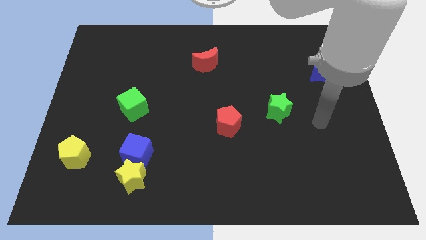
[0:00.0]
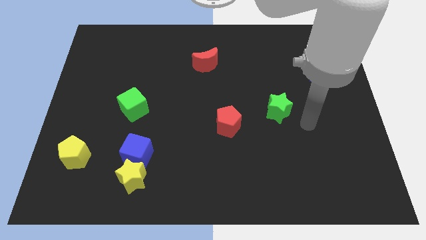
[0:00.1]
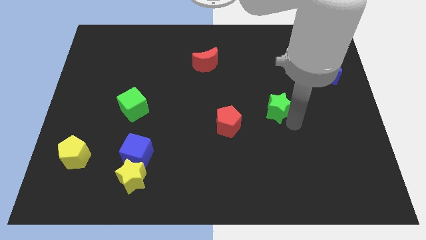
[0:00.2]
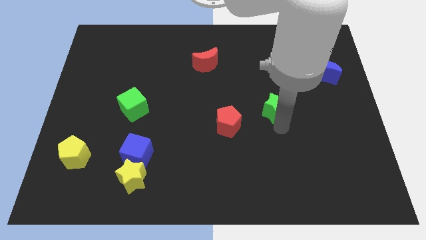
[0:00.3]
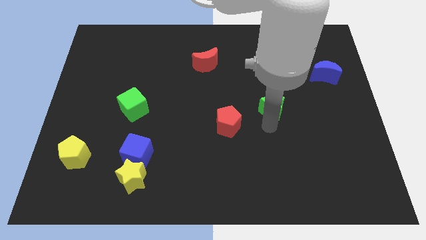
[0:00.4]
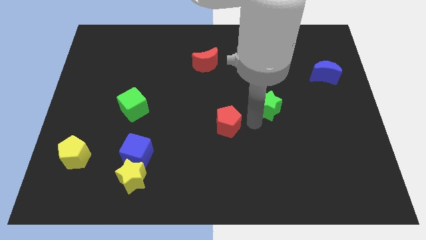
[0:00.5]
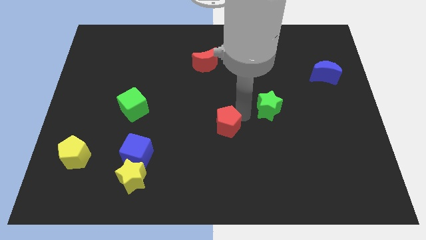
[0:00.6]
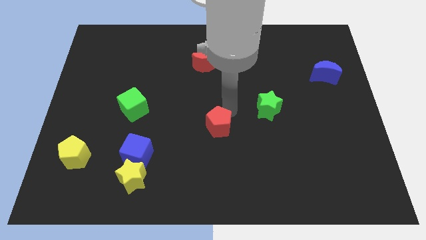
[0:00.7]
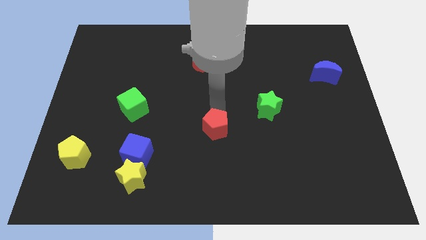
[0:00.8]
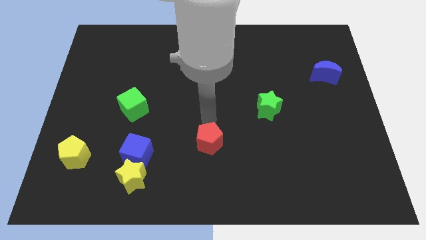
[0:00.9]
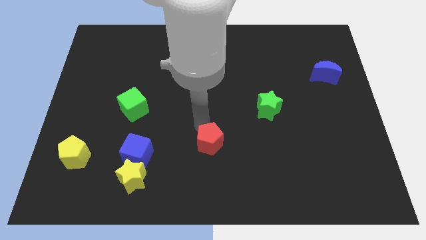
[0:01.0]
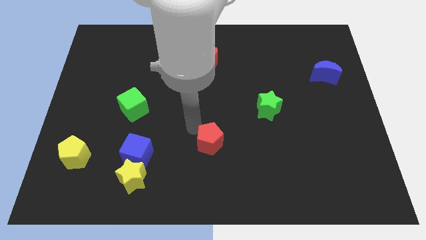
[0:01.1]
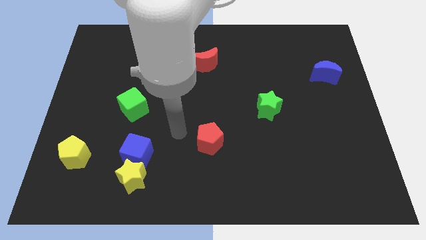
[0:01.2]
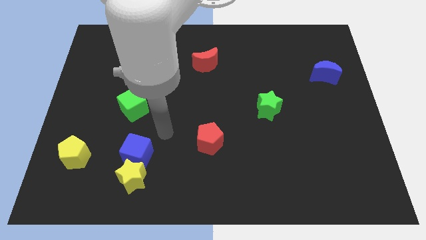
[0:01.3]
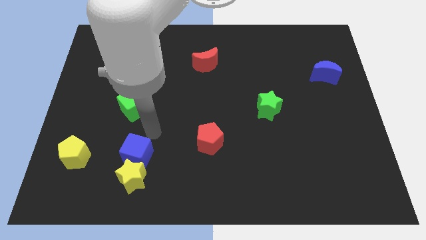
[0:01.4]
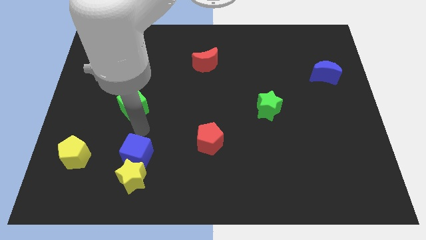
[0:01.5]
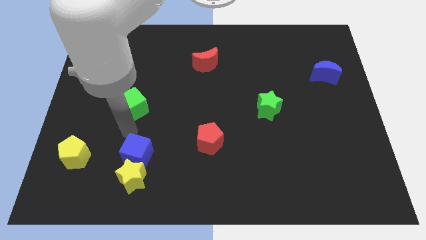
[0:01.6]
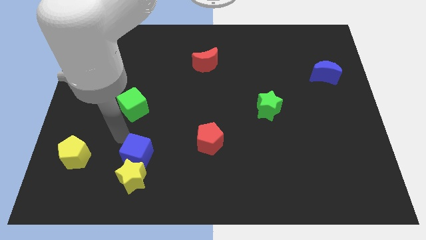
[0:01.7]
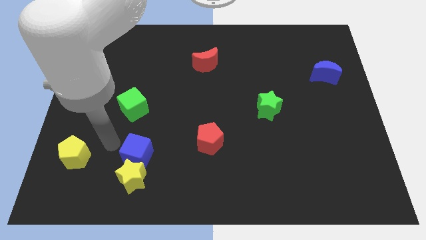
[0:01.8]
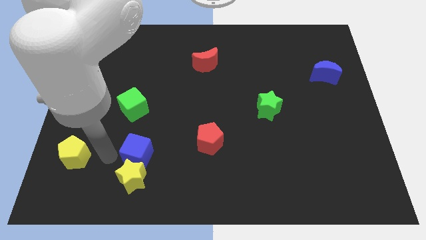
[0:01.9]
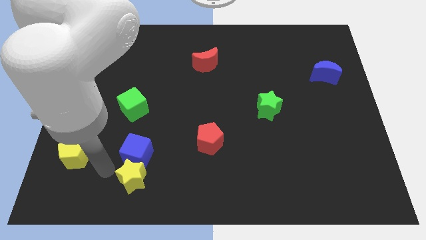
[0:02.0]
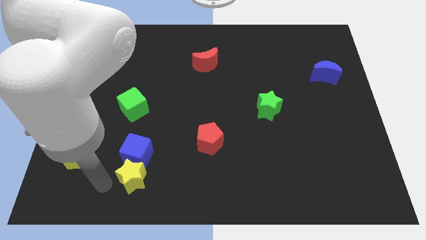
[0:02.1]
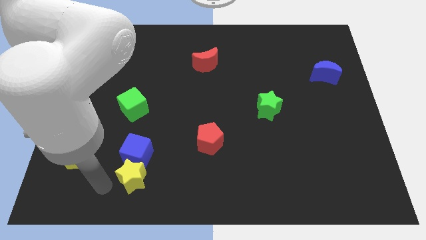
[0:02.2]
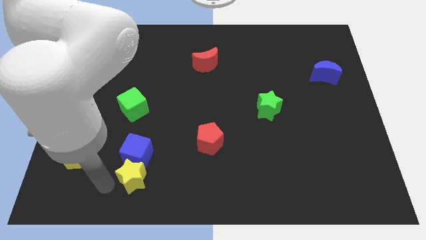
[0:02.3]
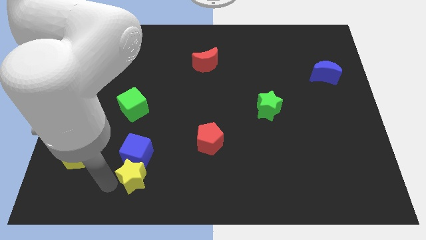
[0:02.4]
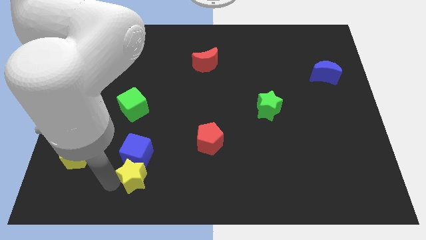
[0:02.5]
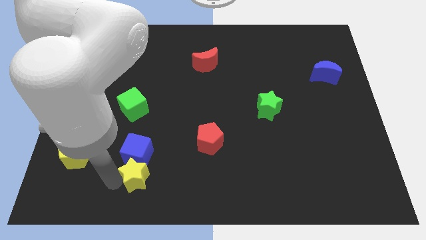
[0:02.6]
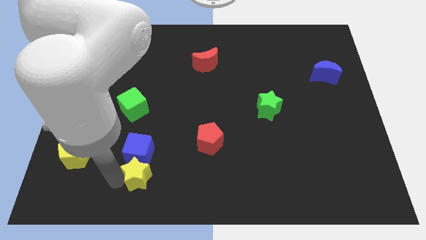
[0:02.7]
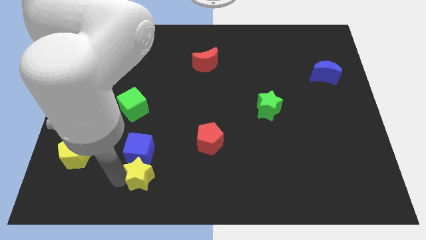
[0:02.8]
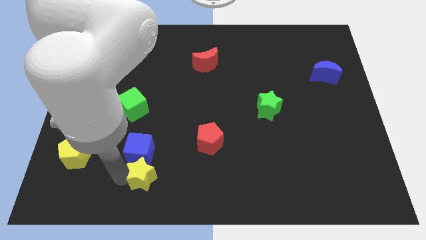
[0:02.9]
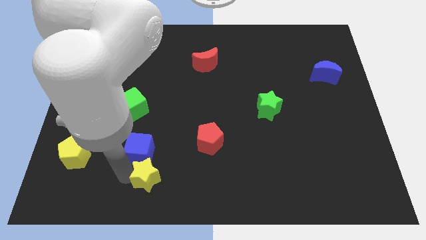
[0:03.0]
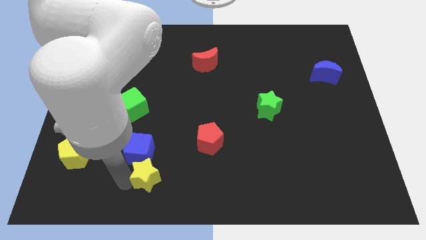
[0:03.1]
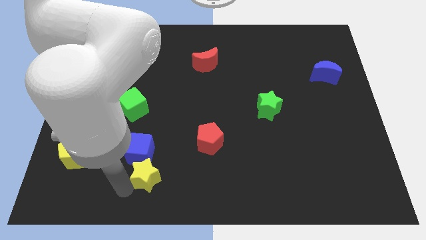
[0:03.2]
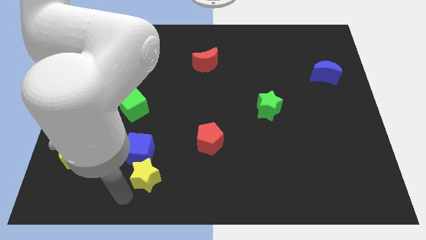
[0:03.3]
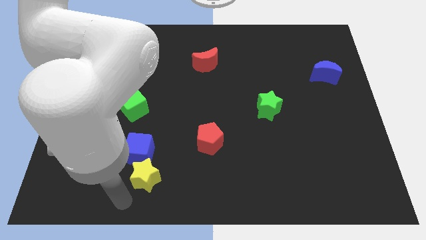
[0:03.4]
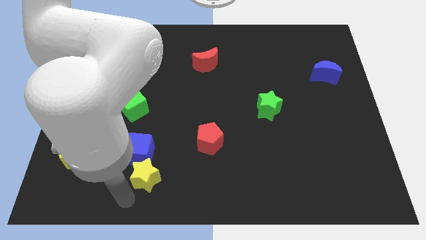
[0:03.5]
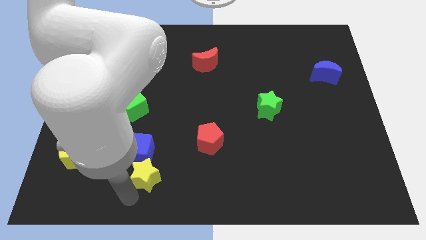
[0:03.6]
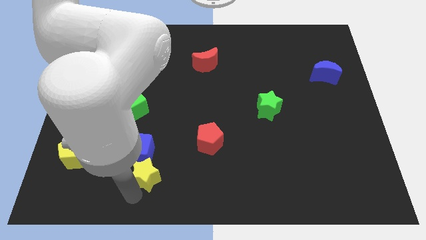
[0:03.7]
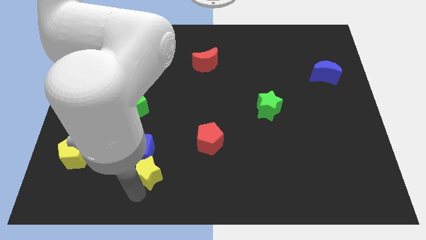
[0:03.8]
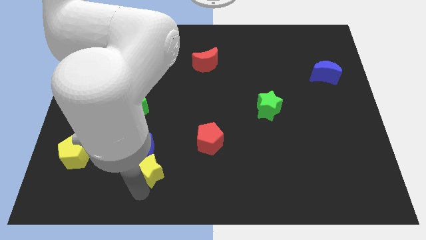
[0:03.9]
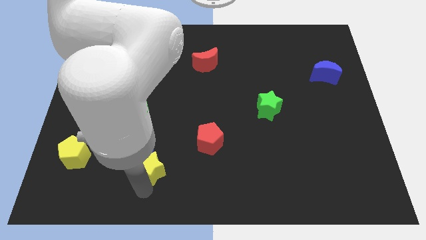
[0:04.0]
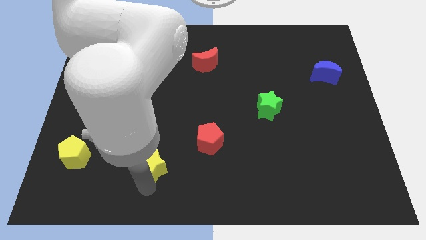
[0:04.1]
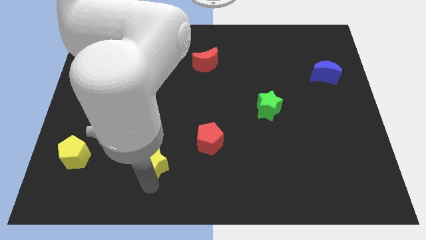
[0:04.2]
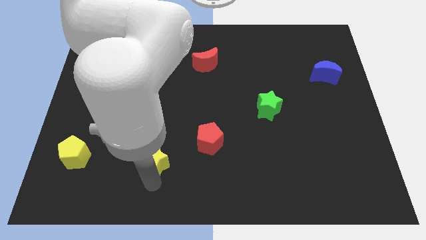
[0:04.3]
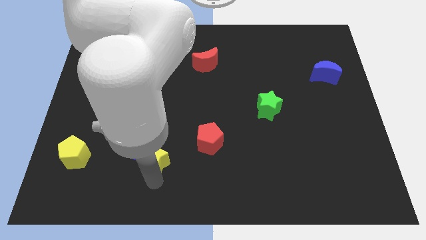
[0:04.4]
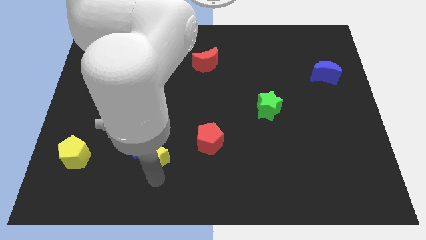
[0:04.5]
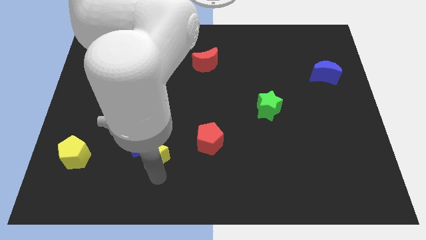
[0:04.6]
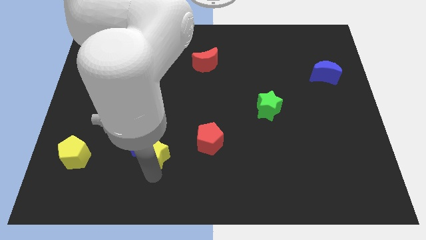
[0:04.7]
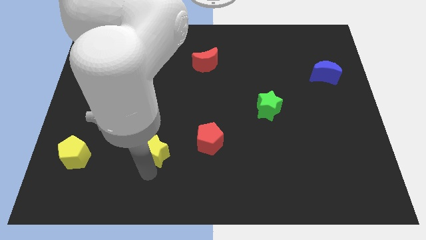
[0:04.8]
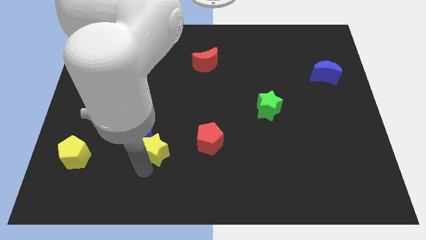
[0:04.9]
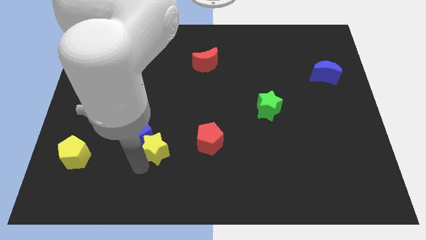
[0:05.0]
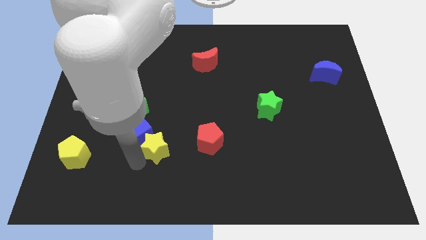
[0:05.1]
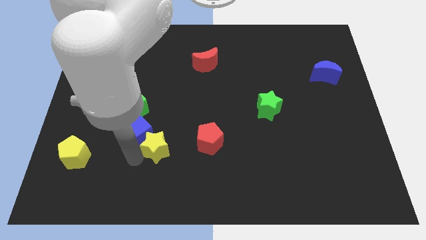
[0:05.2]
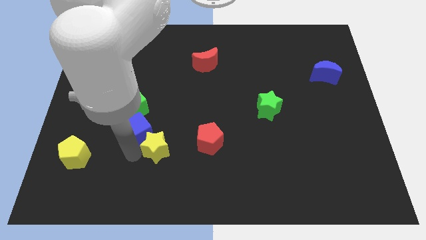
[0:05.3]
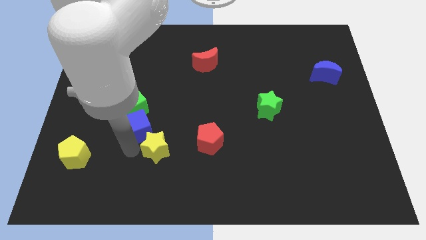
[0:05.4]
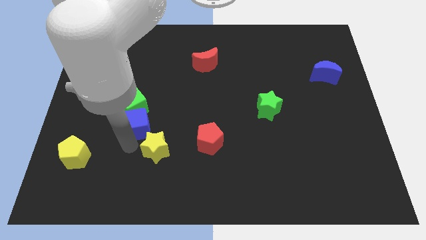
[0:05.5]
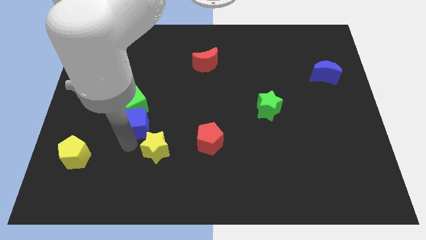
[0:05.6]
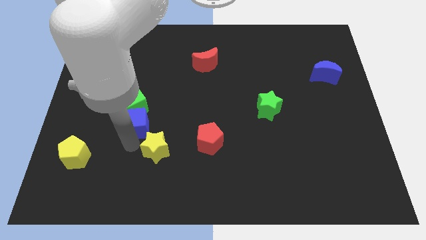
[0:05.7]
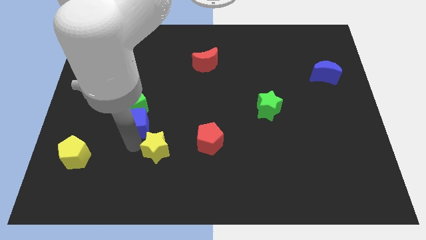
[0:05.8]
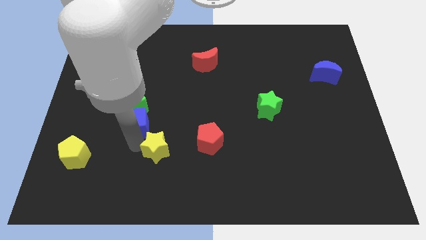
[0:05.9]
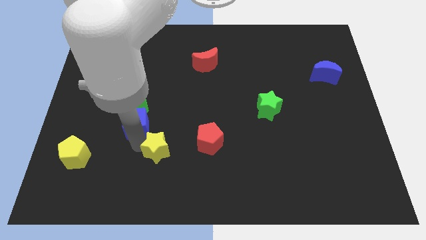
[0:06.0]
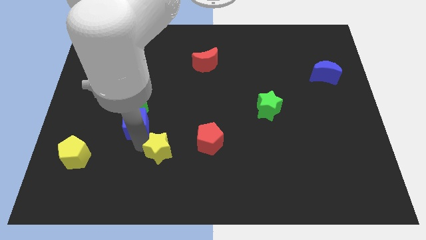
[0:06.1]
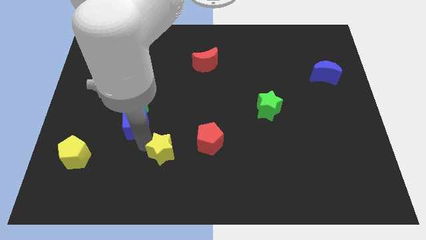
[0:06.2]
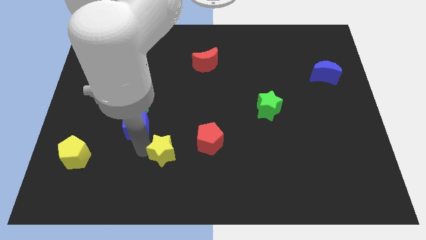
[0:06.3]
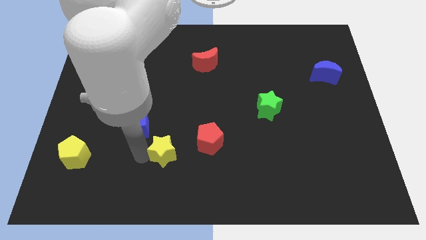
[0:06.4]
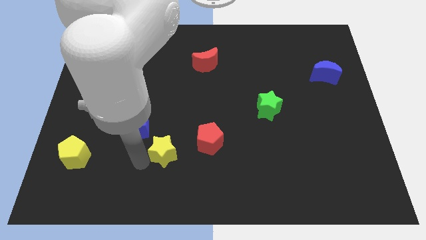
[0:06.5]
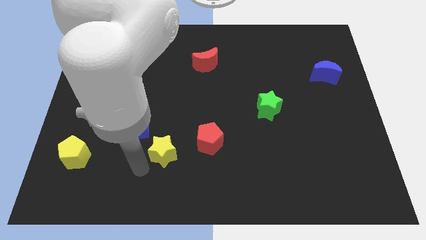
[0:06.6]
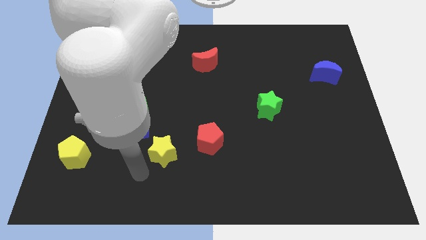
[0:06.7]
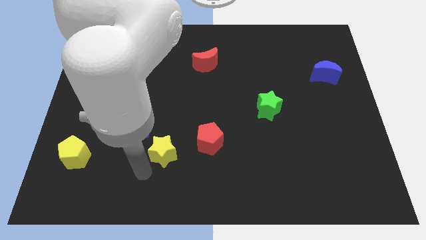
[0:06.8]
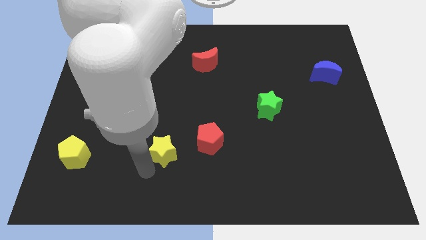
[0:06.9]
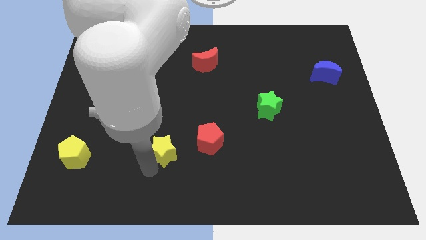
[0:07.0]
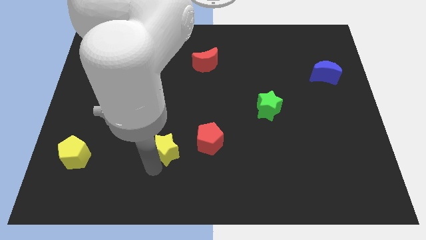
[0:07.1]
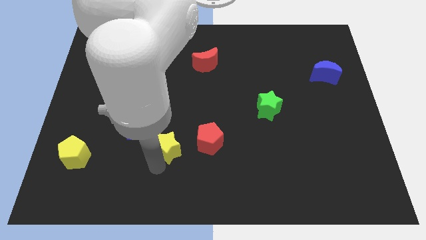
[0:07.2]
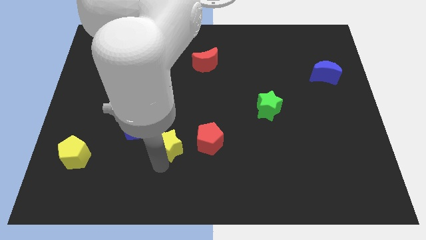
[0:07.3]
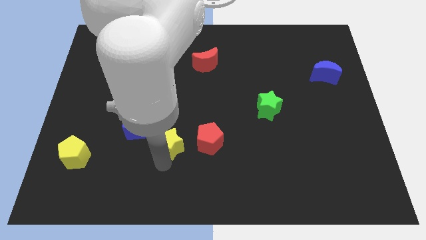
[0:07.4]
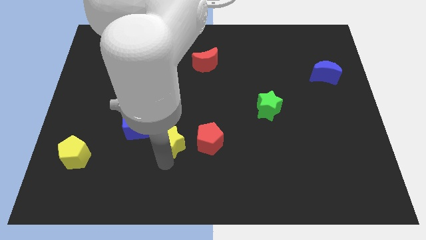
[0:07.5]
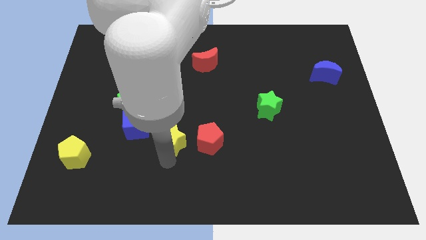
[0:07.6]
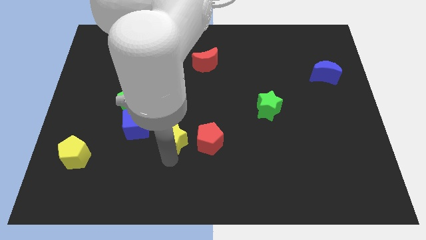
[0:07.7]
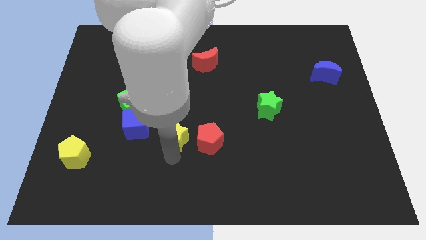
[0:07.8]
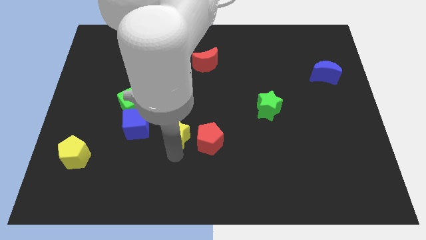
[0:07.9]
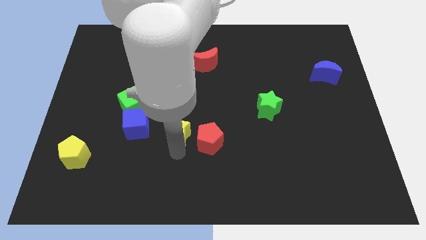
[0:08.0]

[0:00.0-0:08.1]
move the yellow star to the center of the board
